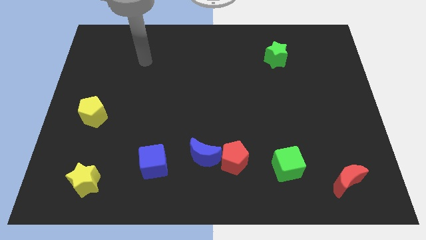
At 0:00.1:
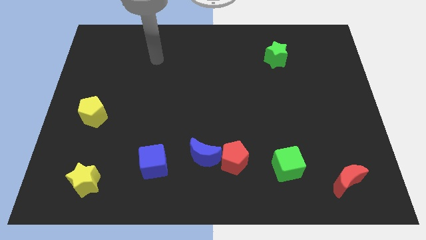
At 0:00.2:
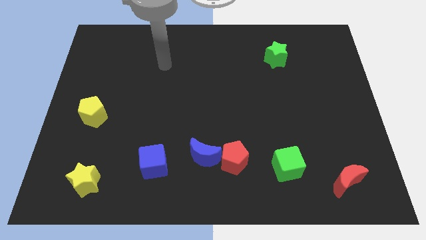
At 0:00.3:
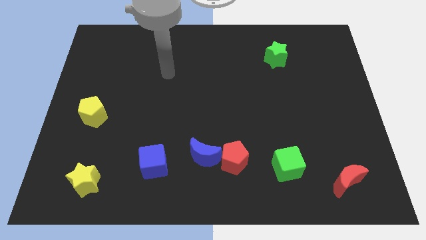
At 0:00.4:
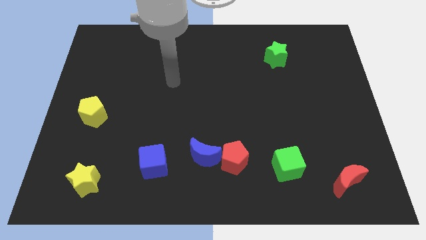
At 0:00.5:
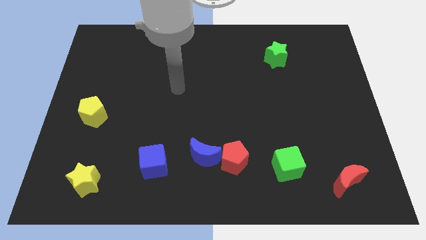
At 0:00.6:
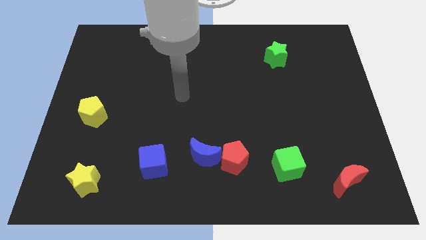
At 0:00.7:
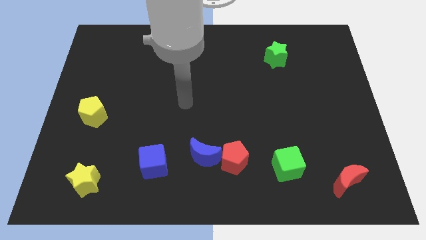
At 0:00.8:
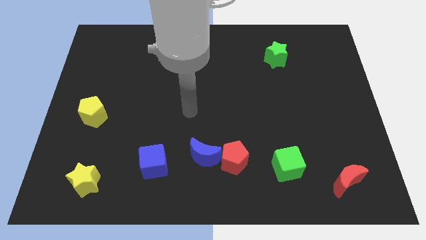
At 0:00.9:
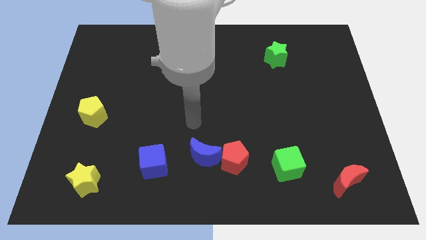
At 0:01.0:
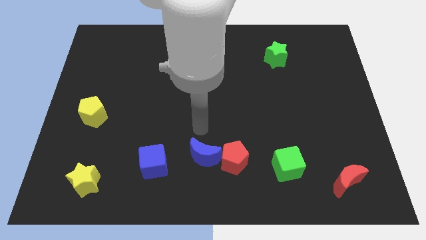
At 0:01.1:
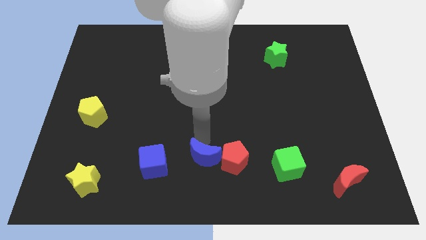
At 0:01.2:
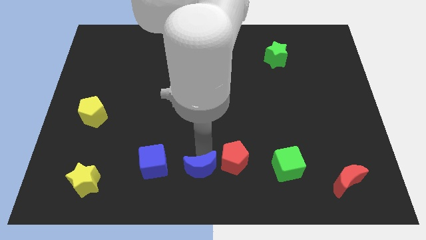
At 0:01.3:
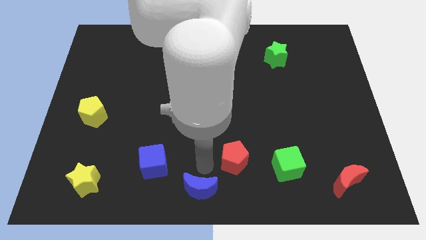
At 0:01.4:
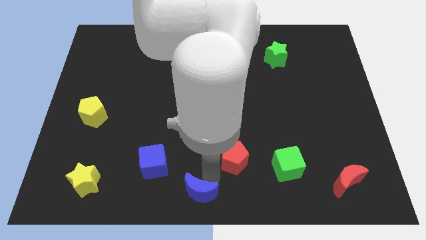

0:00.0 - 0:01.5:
pull the red pentagon apart from the blue moon

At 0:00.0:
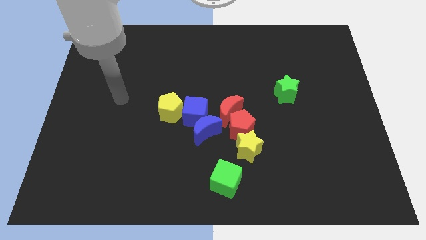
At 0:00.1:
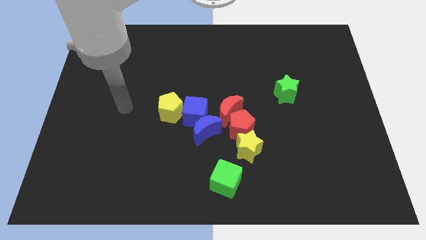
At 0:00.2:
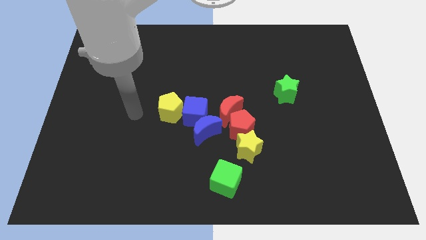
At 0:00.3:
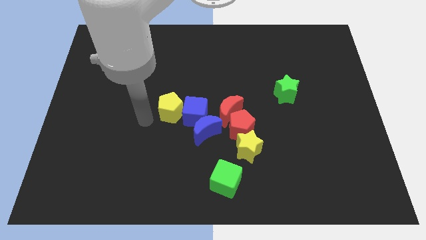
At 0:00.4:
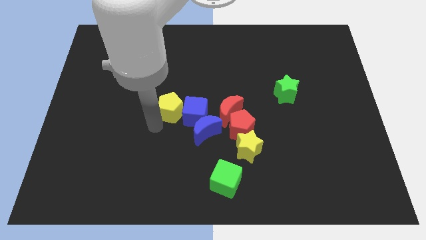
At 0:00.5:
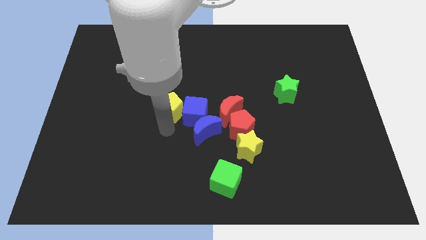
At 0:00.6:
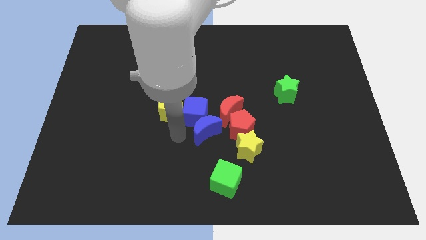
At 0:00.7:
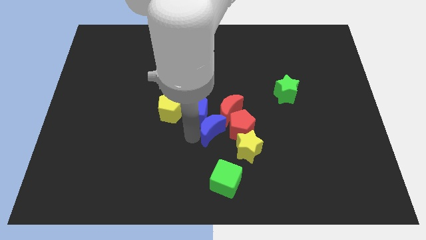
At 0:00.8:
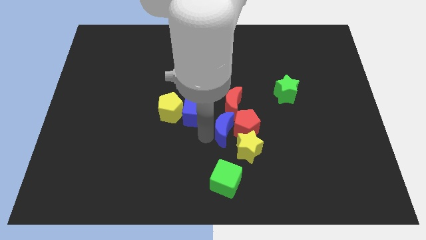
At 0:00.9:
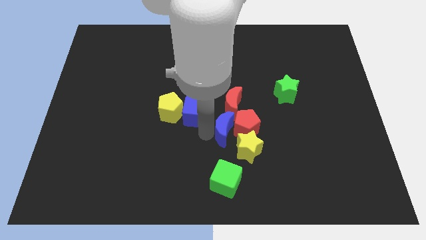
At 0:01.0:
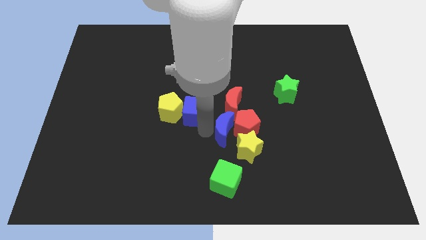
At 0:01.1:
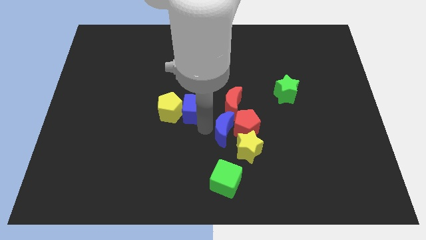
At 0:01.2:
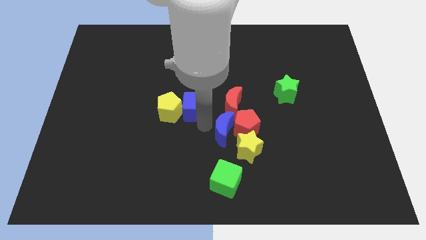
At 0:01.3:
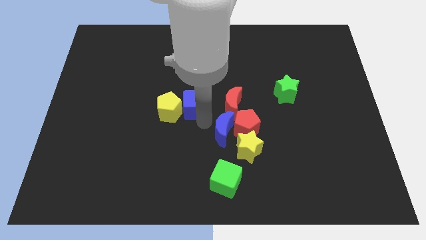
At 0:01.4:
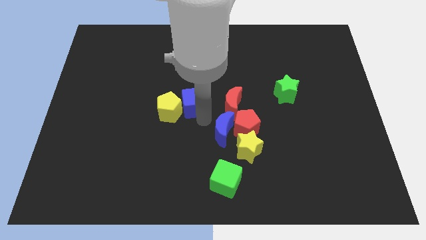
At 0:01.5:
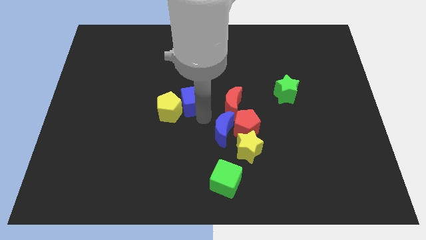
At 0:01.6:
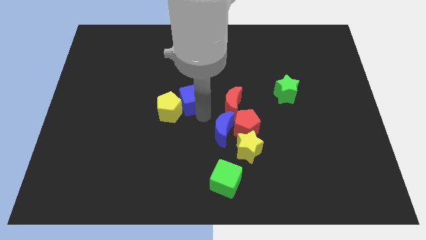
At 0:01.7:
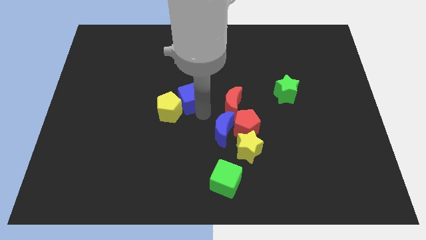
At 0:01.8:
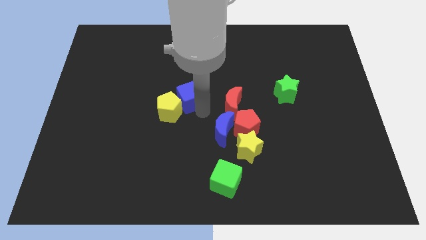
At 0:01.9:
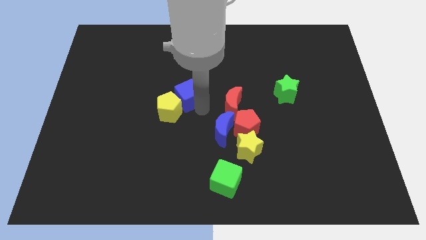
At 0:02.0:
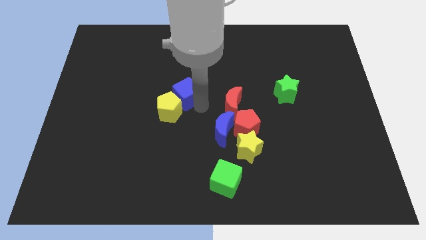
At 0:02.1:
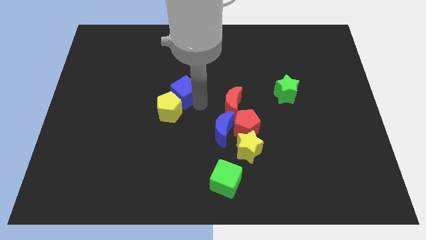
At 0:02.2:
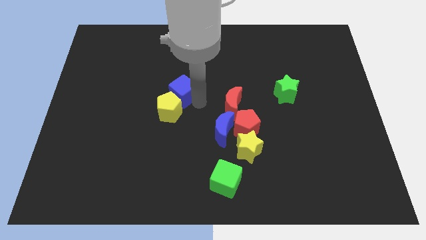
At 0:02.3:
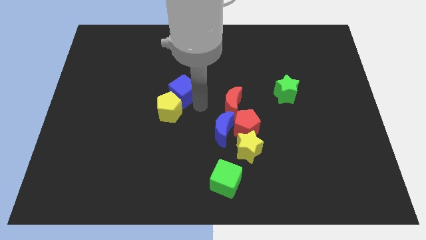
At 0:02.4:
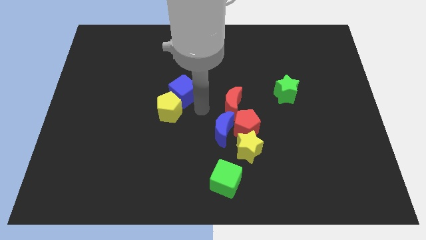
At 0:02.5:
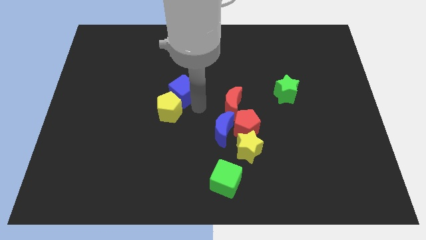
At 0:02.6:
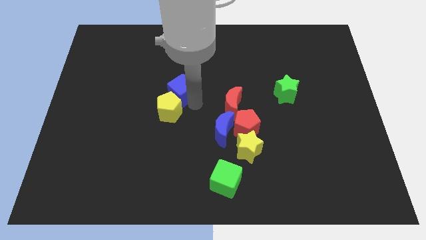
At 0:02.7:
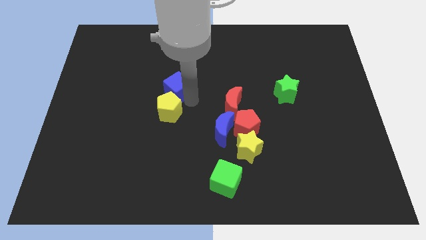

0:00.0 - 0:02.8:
separate the blue cube from the blue moon, yellow pentagon, and red moon

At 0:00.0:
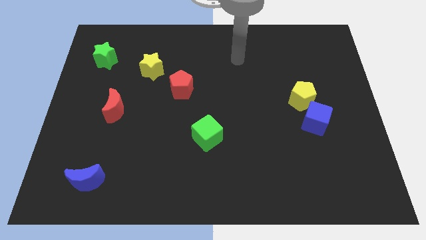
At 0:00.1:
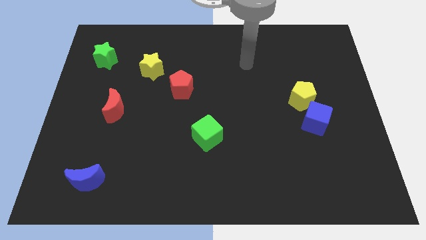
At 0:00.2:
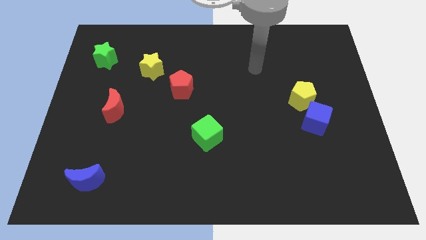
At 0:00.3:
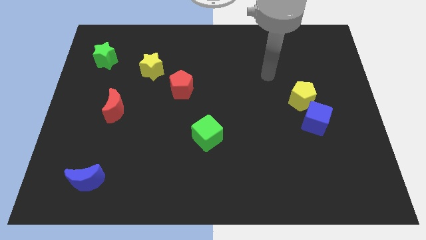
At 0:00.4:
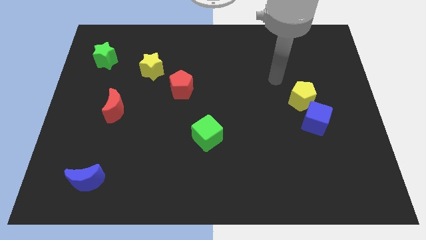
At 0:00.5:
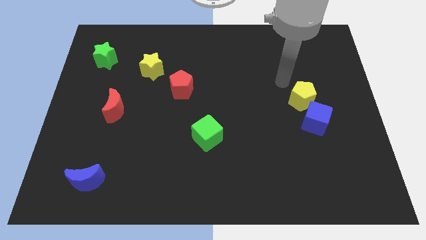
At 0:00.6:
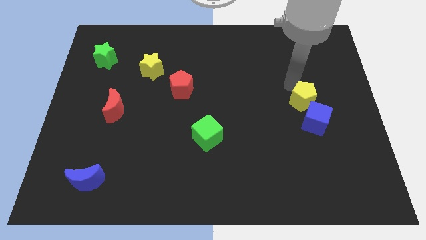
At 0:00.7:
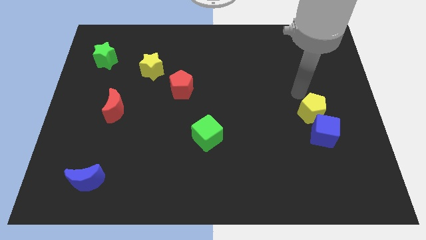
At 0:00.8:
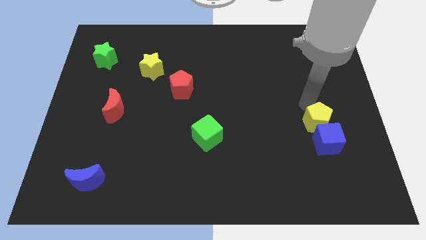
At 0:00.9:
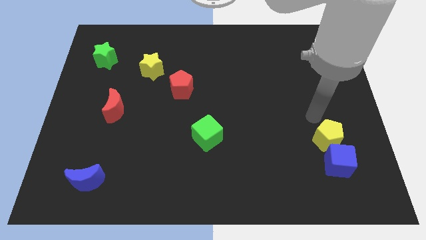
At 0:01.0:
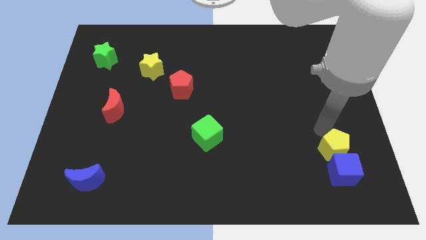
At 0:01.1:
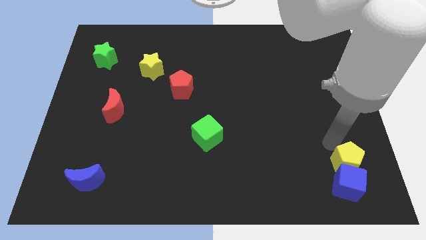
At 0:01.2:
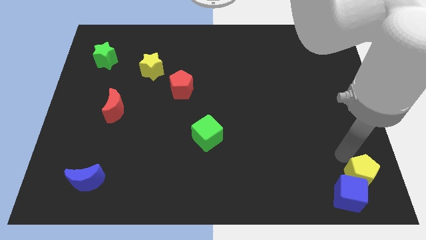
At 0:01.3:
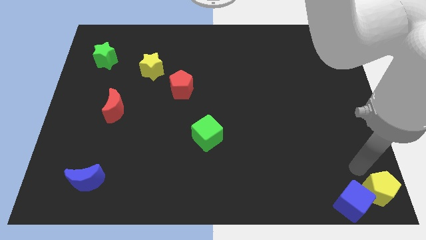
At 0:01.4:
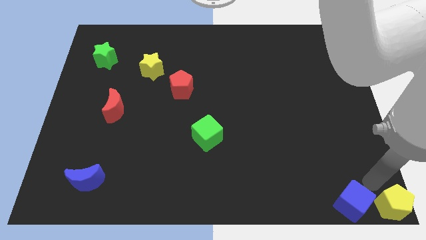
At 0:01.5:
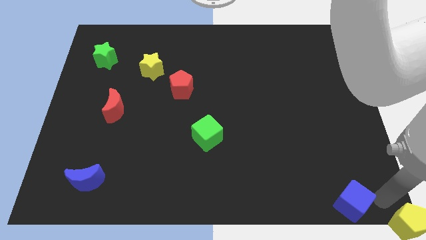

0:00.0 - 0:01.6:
pull the blue cube apart from the yellow pentagon

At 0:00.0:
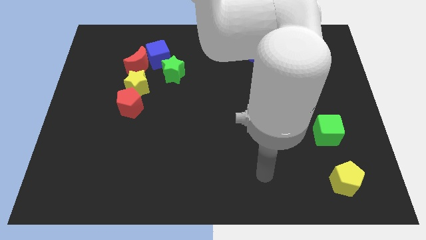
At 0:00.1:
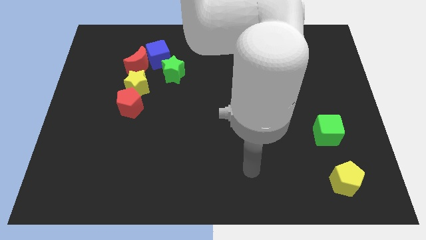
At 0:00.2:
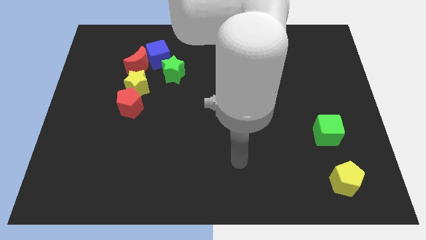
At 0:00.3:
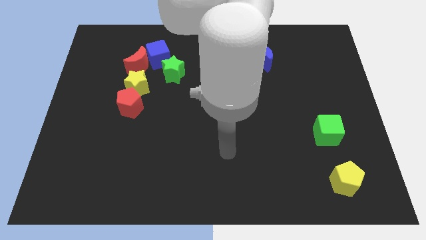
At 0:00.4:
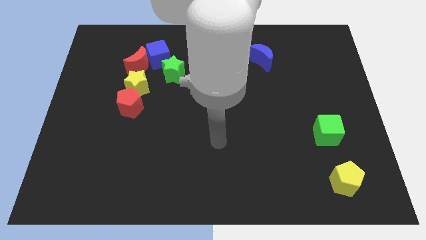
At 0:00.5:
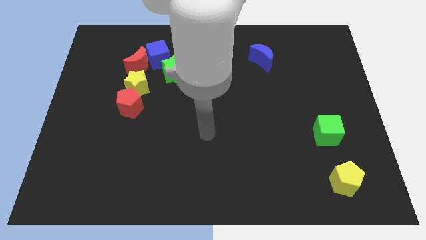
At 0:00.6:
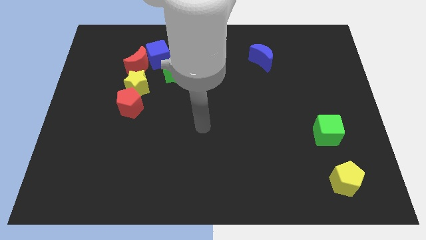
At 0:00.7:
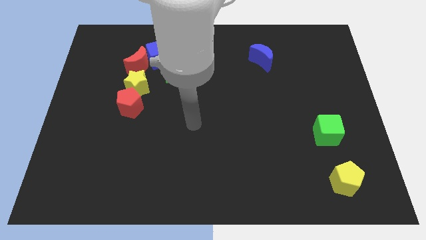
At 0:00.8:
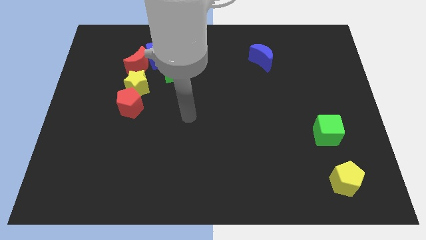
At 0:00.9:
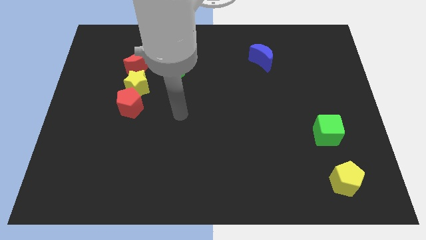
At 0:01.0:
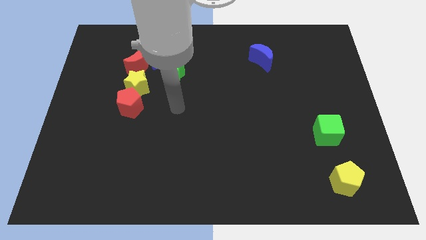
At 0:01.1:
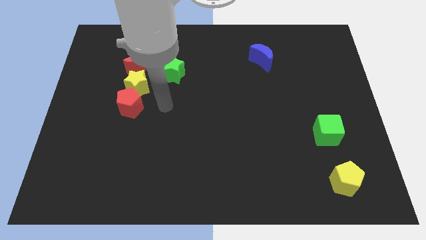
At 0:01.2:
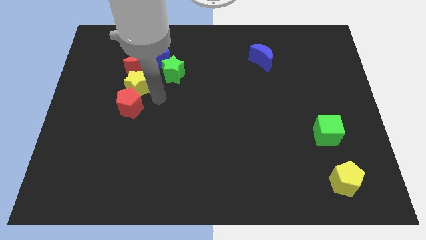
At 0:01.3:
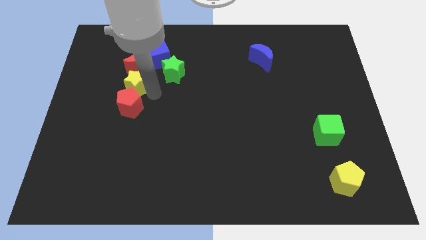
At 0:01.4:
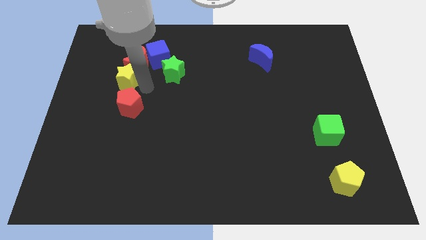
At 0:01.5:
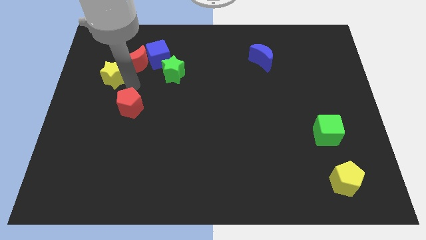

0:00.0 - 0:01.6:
move the red pentagon away from the yellow star

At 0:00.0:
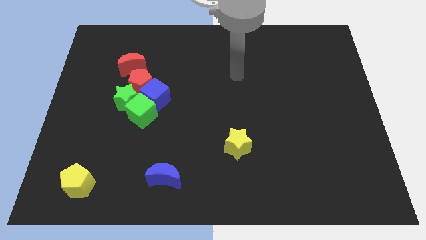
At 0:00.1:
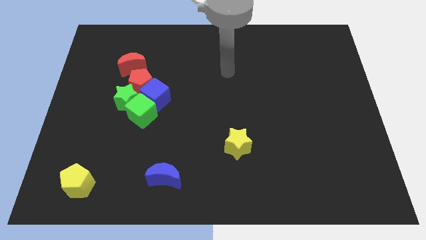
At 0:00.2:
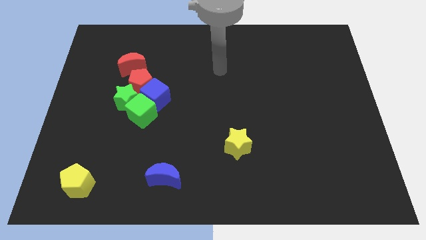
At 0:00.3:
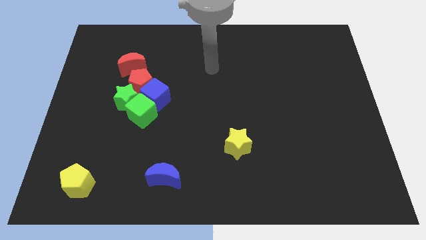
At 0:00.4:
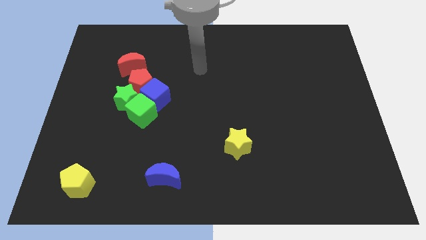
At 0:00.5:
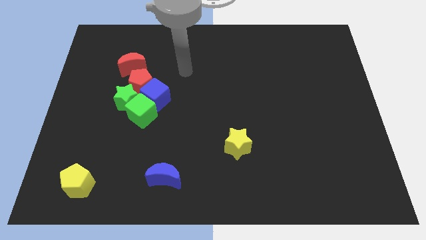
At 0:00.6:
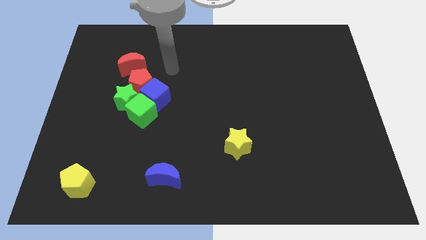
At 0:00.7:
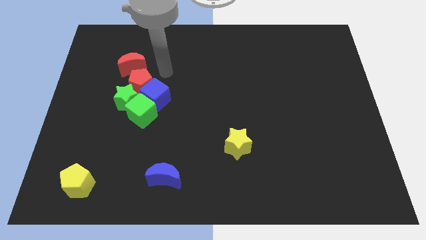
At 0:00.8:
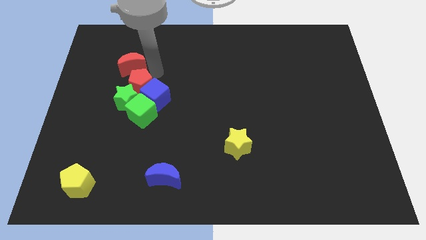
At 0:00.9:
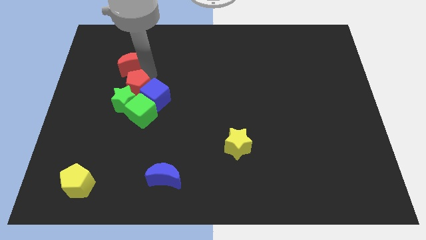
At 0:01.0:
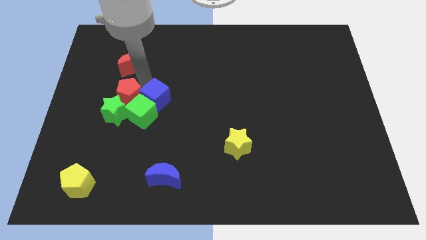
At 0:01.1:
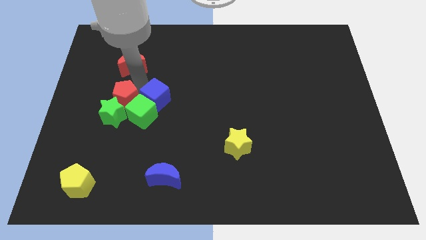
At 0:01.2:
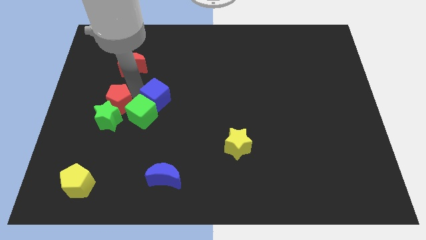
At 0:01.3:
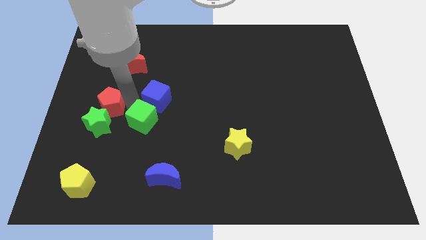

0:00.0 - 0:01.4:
move the blue cube away from the red pentagon, green cube, and green star

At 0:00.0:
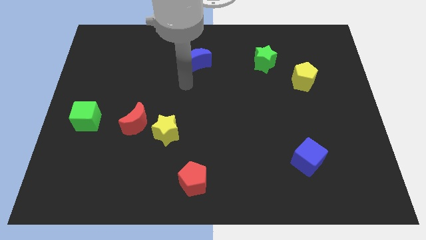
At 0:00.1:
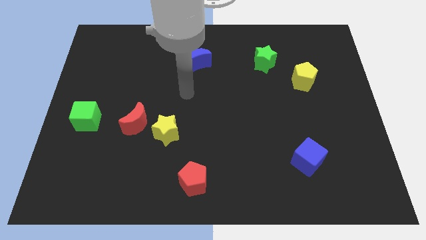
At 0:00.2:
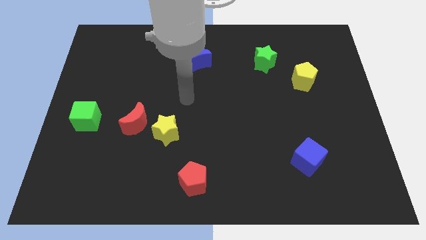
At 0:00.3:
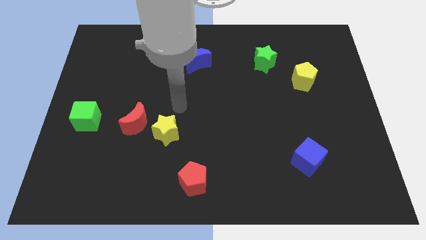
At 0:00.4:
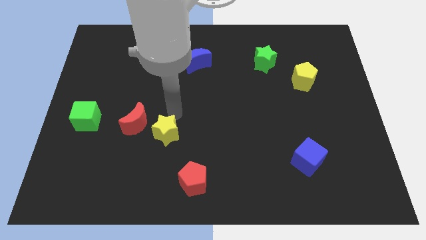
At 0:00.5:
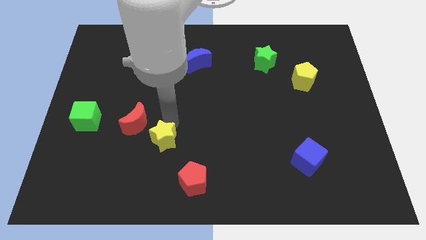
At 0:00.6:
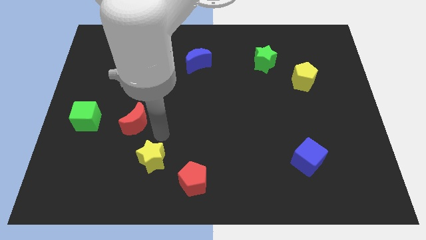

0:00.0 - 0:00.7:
move the red moon away from the yellow star
